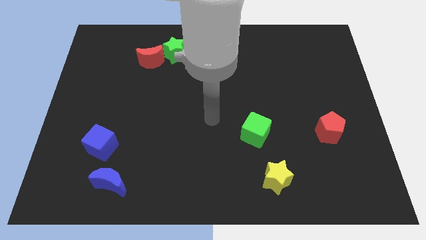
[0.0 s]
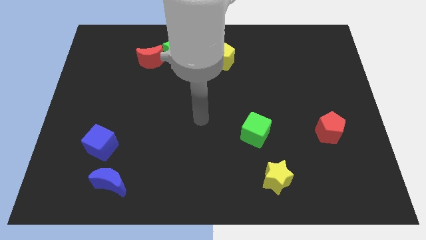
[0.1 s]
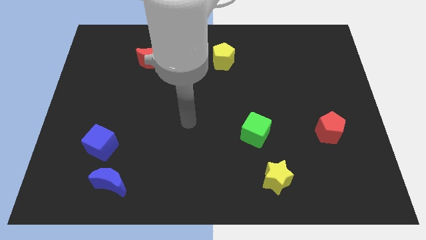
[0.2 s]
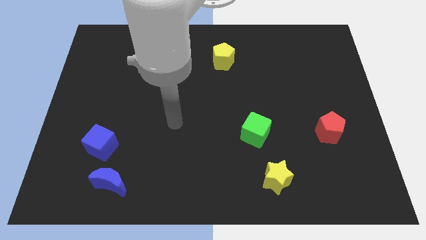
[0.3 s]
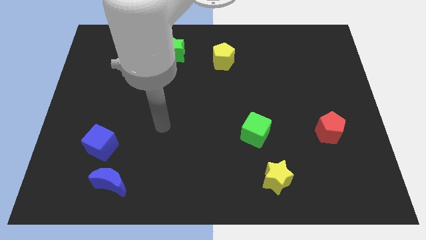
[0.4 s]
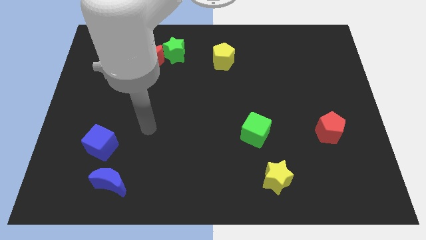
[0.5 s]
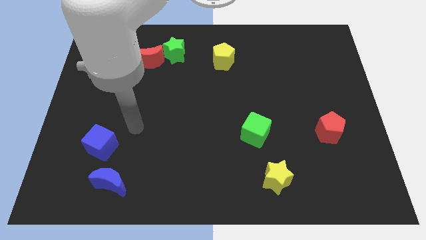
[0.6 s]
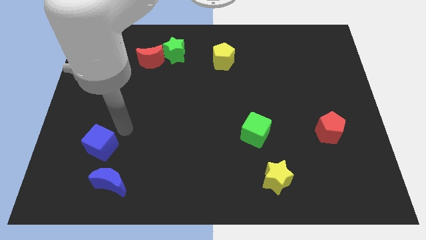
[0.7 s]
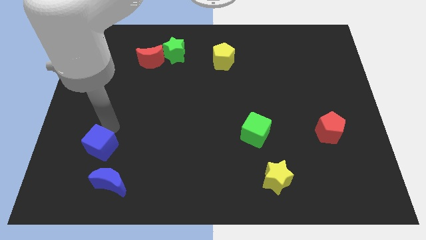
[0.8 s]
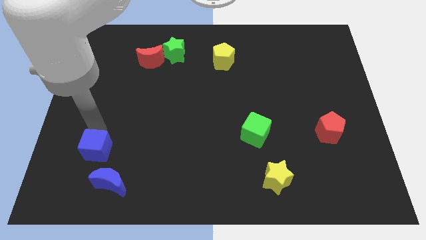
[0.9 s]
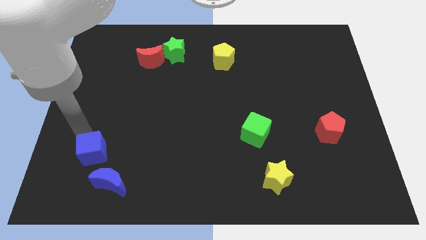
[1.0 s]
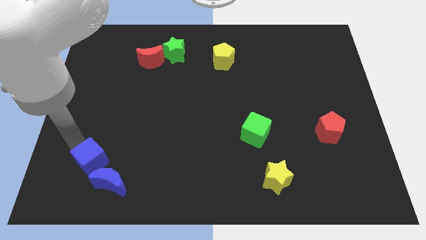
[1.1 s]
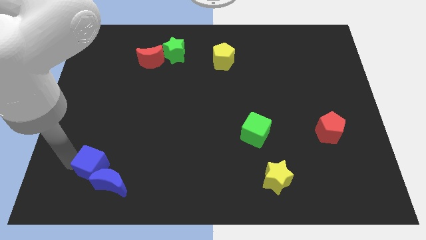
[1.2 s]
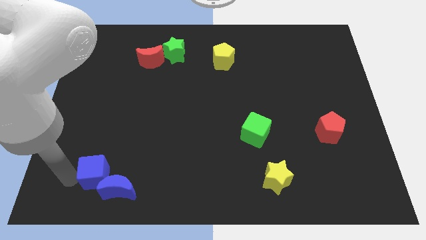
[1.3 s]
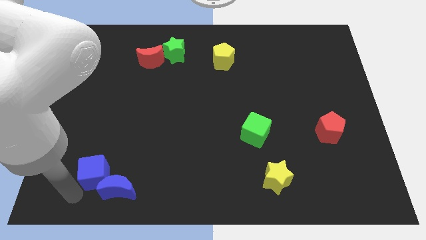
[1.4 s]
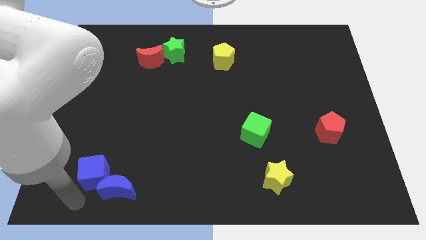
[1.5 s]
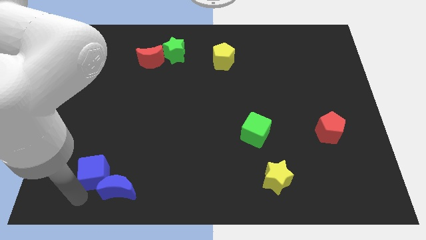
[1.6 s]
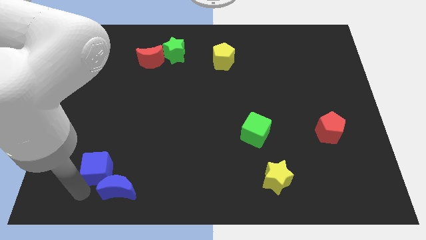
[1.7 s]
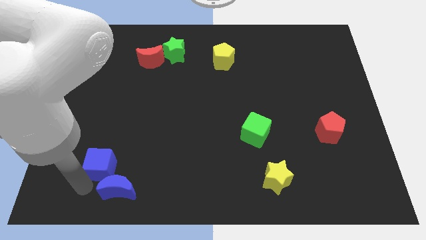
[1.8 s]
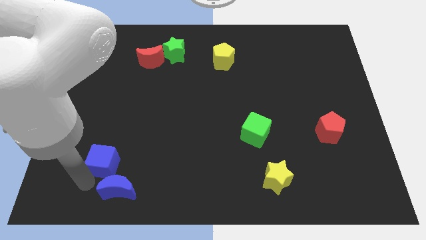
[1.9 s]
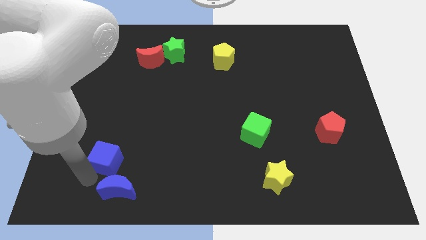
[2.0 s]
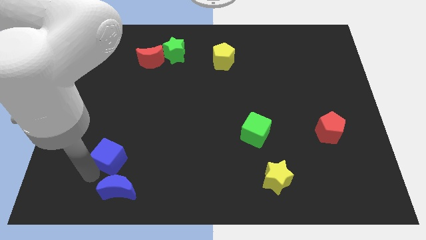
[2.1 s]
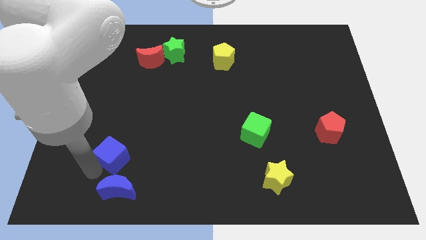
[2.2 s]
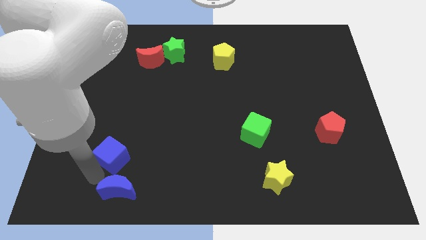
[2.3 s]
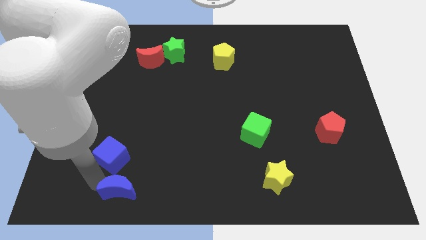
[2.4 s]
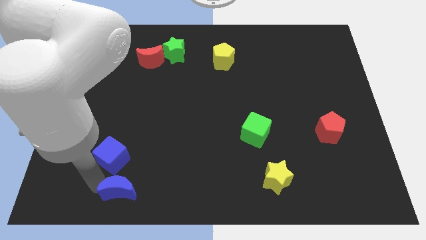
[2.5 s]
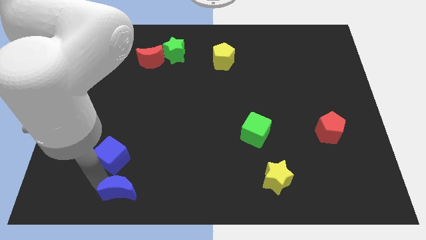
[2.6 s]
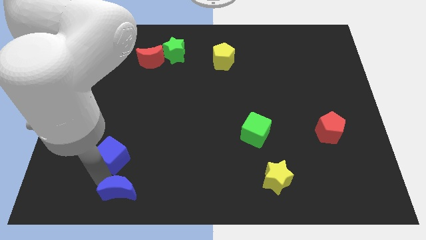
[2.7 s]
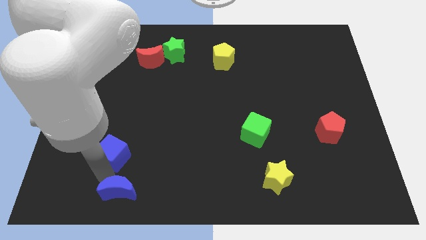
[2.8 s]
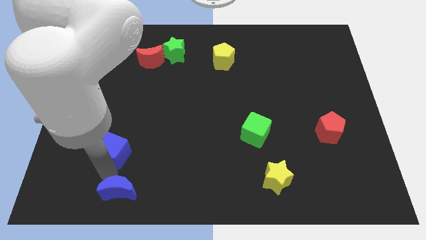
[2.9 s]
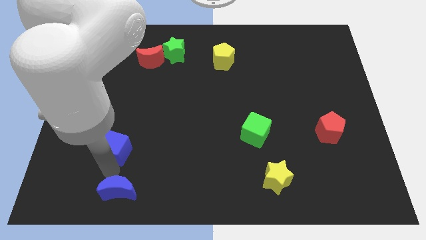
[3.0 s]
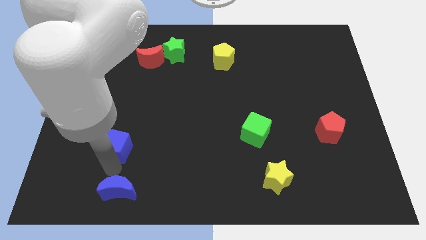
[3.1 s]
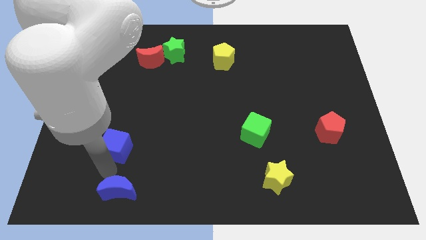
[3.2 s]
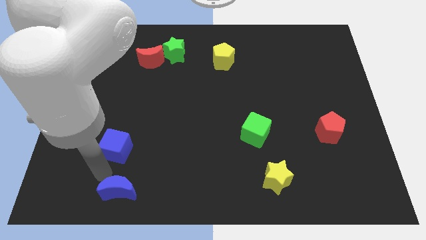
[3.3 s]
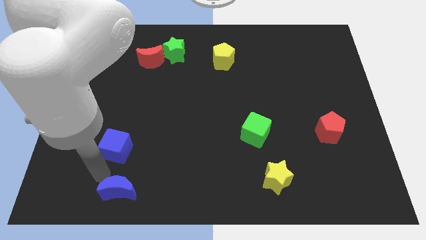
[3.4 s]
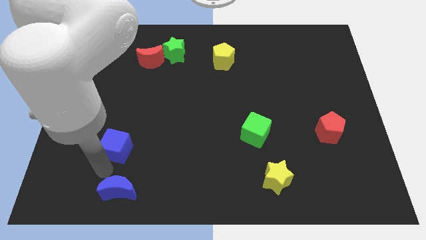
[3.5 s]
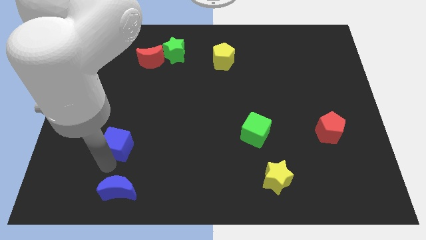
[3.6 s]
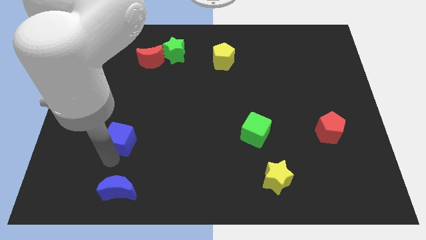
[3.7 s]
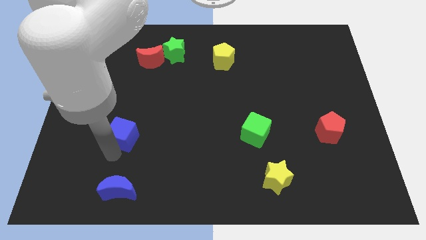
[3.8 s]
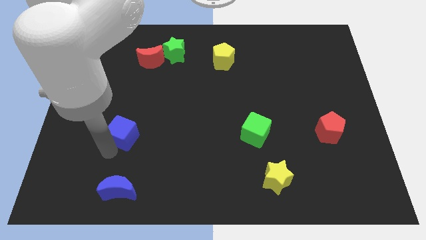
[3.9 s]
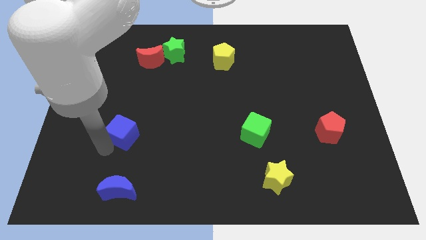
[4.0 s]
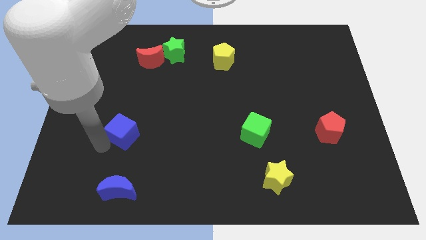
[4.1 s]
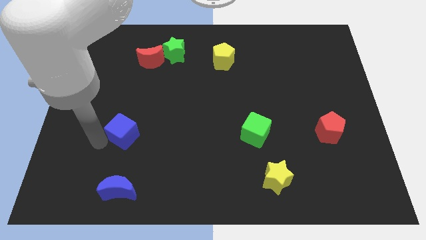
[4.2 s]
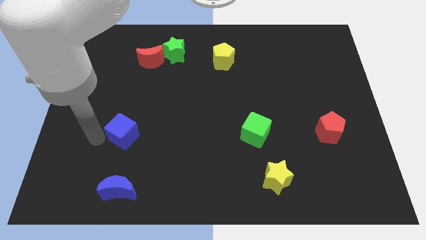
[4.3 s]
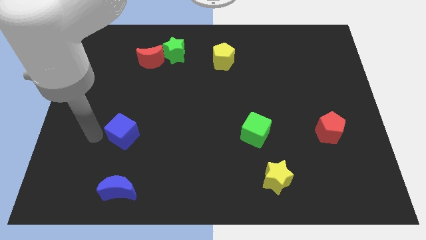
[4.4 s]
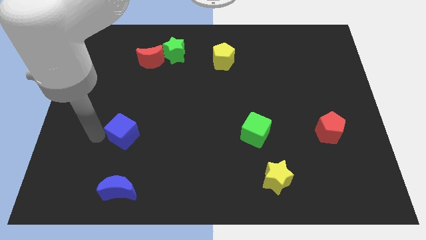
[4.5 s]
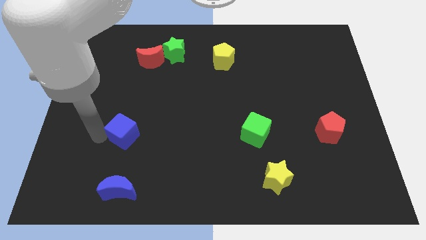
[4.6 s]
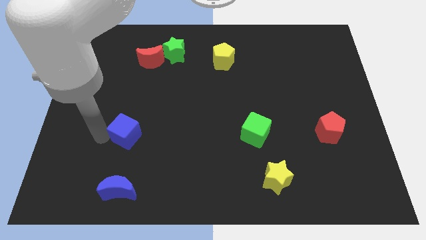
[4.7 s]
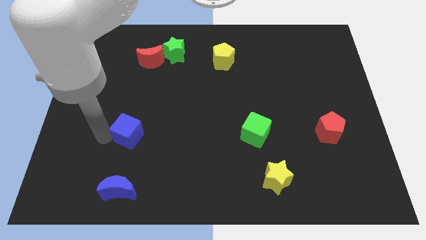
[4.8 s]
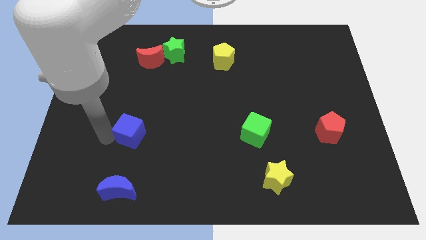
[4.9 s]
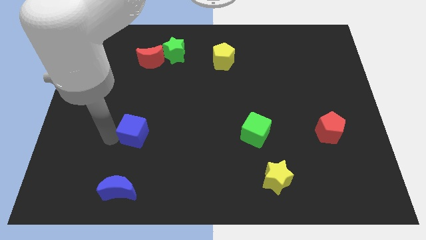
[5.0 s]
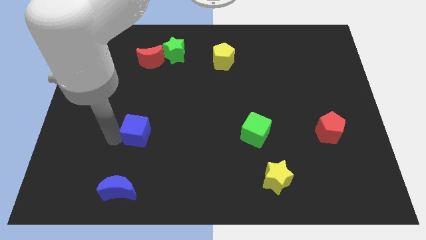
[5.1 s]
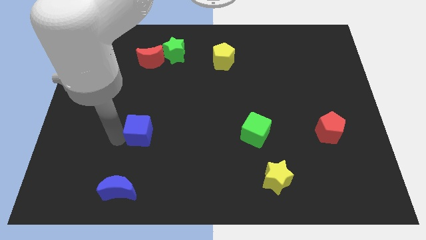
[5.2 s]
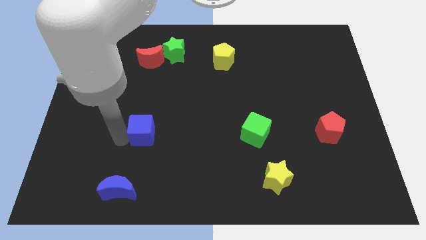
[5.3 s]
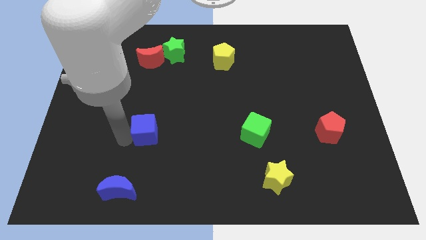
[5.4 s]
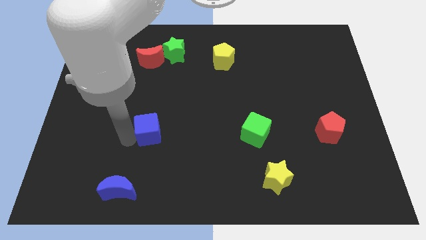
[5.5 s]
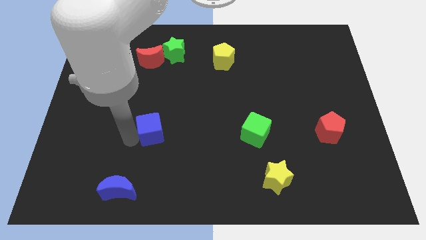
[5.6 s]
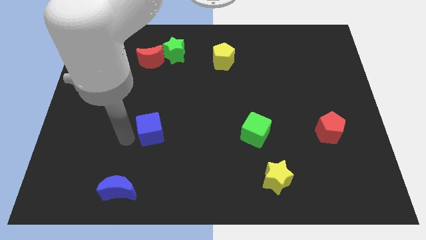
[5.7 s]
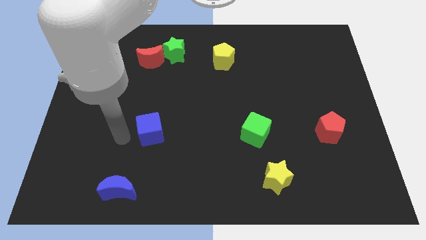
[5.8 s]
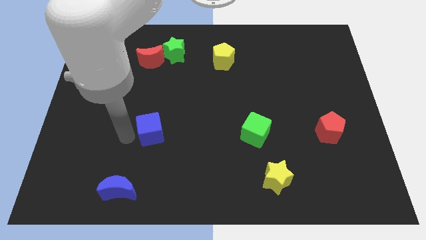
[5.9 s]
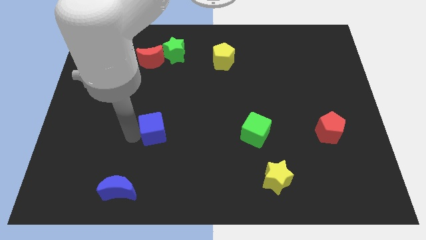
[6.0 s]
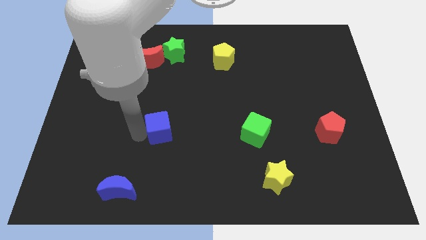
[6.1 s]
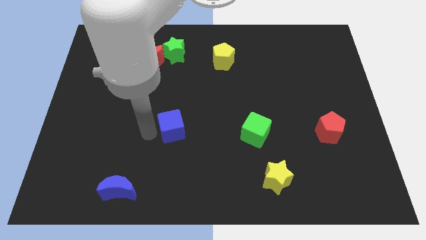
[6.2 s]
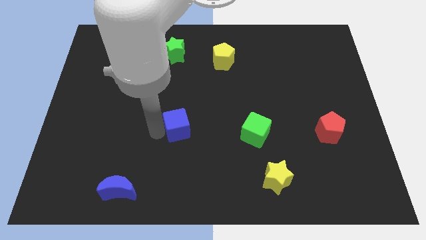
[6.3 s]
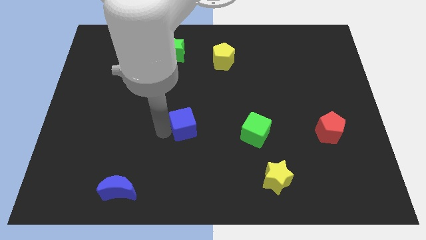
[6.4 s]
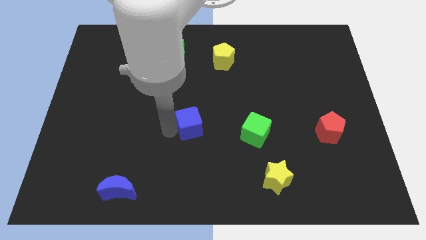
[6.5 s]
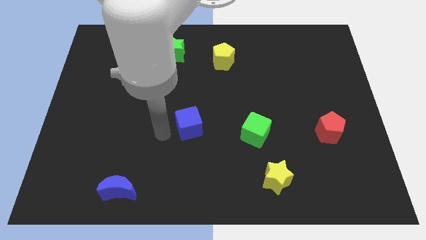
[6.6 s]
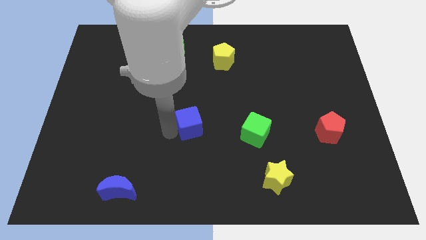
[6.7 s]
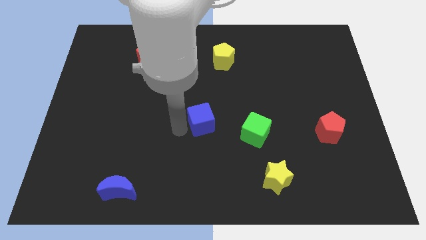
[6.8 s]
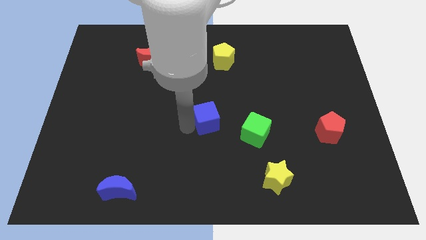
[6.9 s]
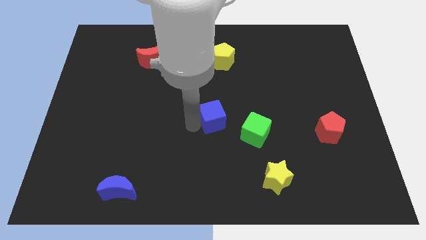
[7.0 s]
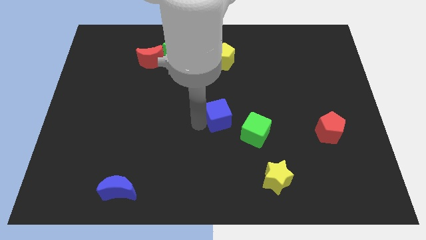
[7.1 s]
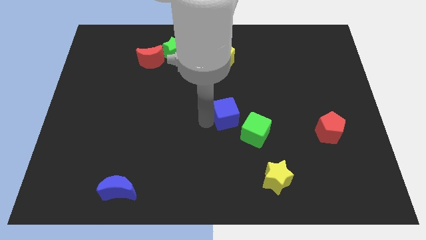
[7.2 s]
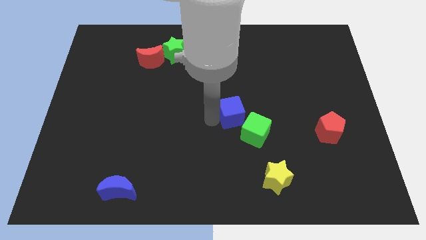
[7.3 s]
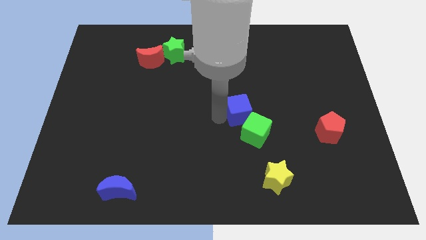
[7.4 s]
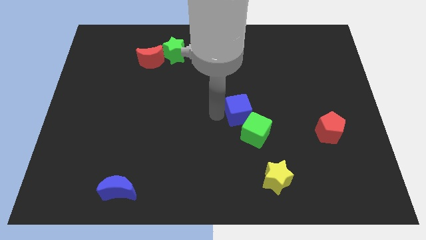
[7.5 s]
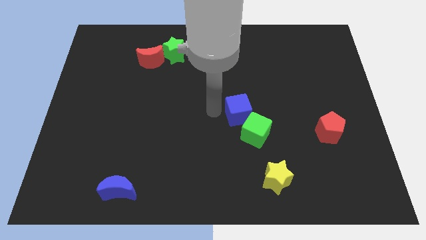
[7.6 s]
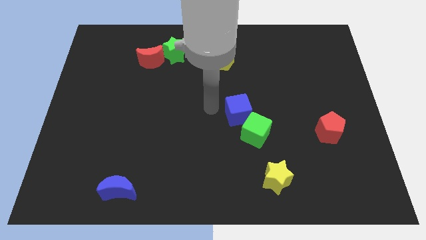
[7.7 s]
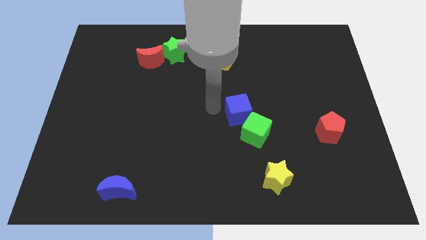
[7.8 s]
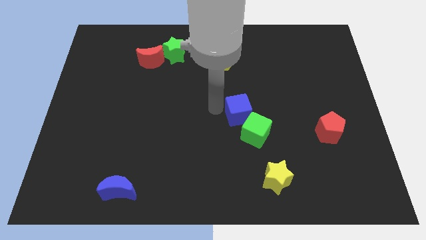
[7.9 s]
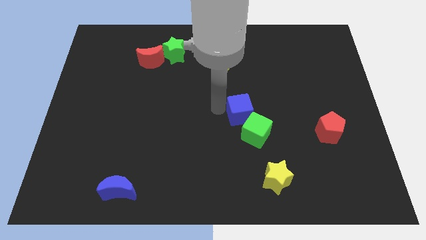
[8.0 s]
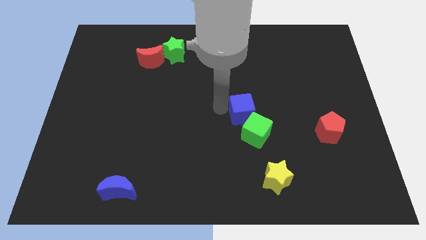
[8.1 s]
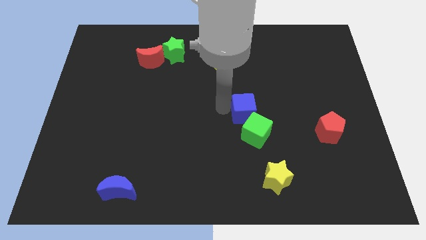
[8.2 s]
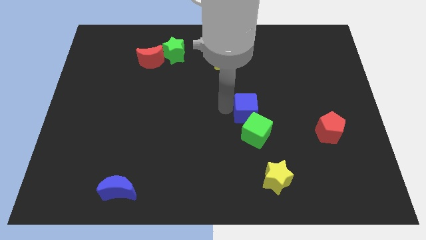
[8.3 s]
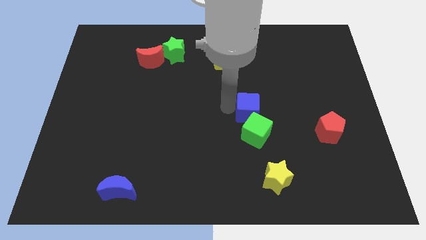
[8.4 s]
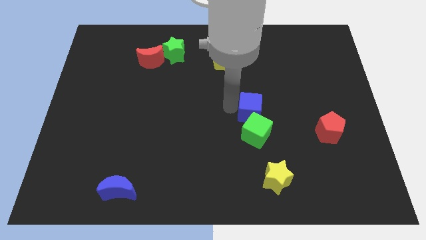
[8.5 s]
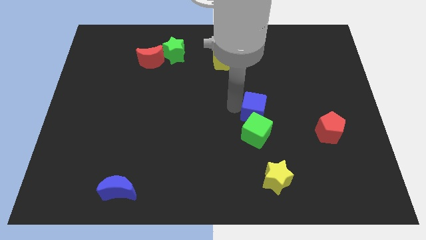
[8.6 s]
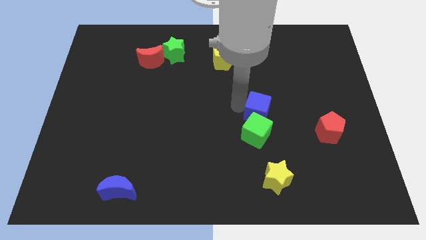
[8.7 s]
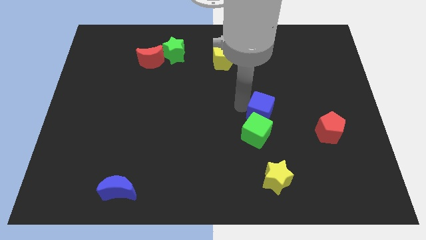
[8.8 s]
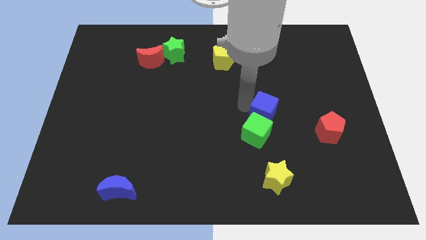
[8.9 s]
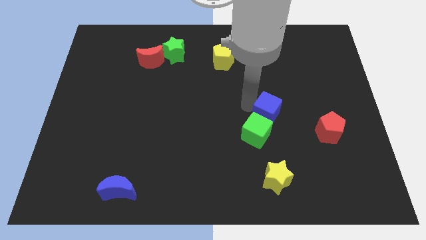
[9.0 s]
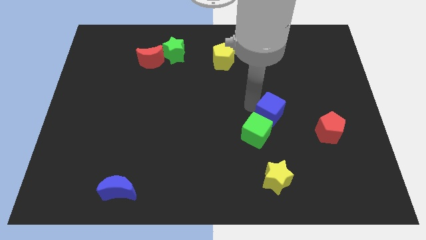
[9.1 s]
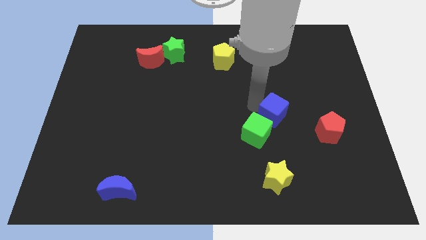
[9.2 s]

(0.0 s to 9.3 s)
slide the blue cube just left of the red pentagon
